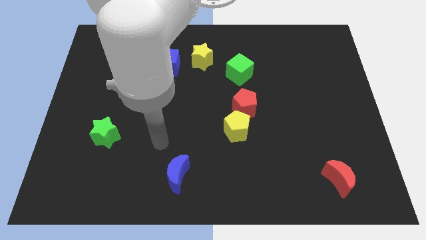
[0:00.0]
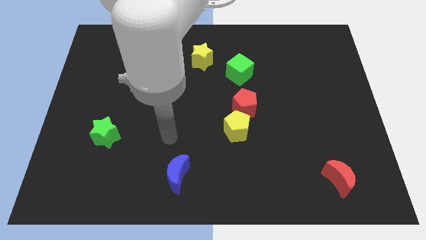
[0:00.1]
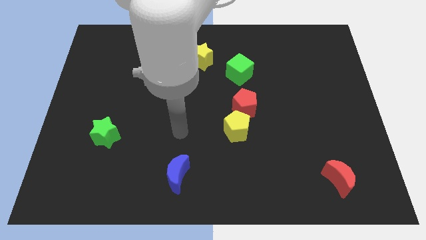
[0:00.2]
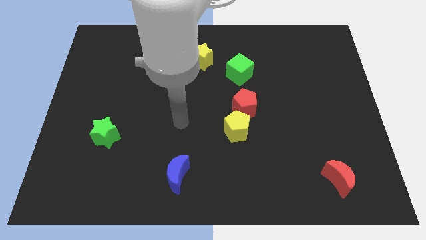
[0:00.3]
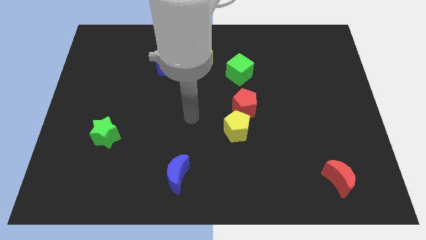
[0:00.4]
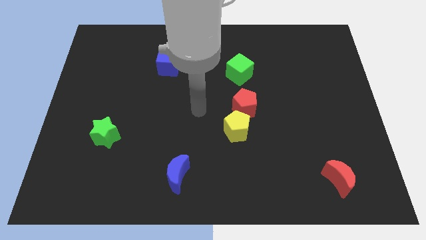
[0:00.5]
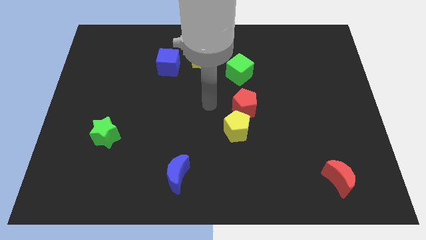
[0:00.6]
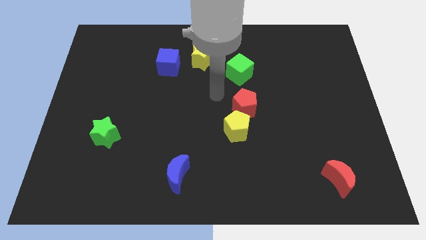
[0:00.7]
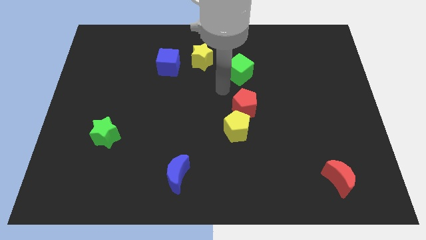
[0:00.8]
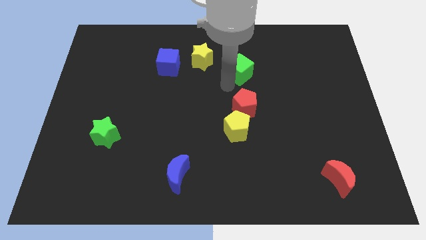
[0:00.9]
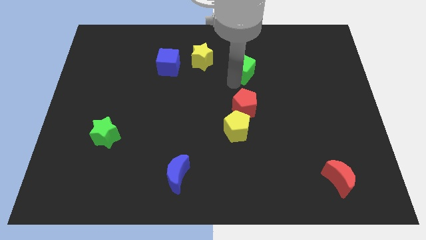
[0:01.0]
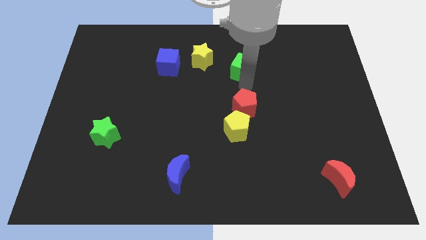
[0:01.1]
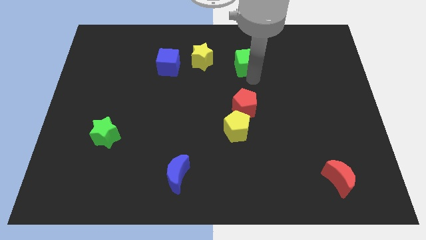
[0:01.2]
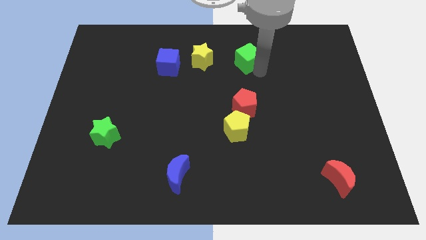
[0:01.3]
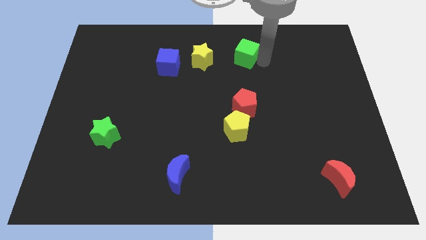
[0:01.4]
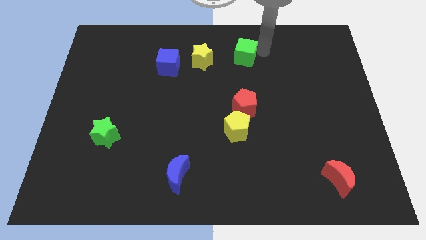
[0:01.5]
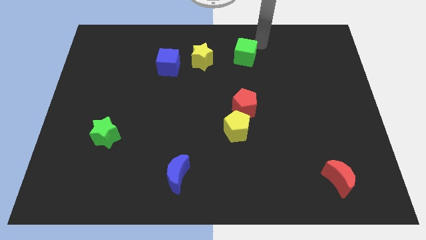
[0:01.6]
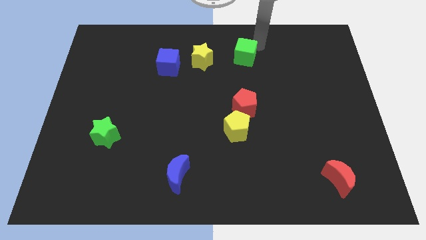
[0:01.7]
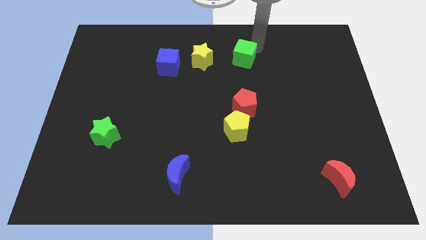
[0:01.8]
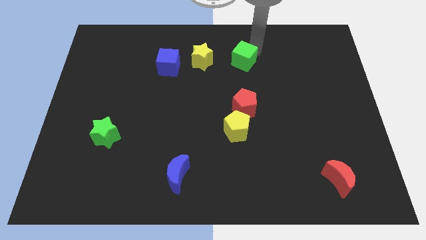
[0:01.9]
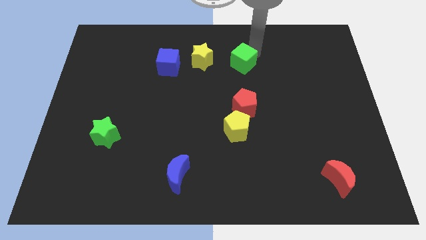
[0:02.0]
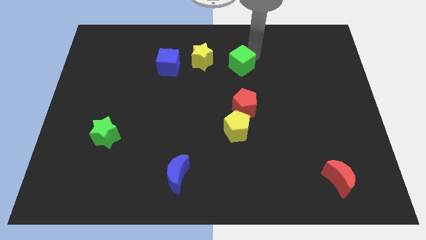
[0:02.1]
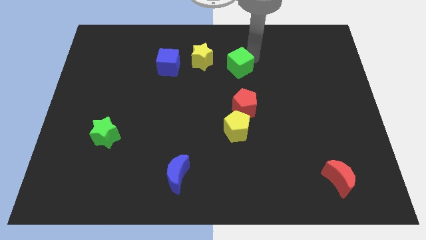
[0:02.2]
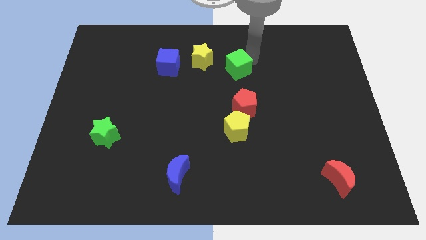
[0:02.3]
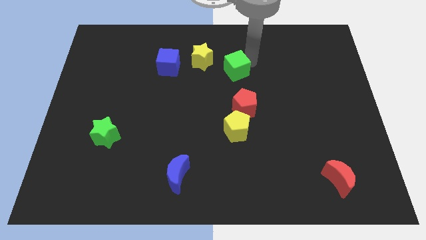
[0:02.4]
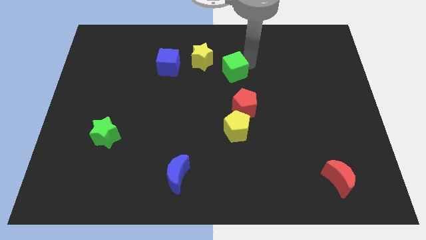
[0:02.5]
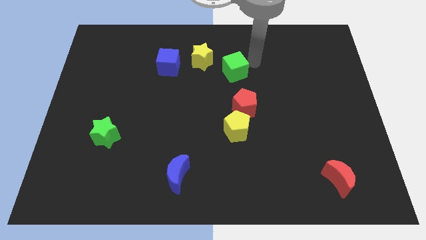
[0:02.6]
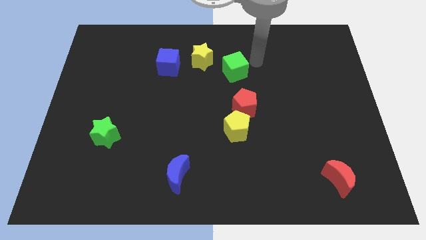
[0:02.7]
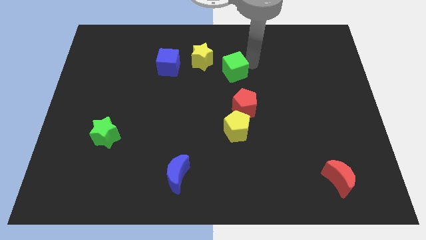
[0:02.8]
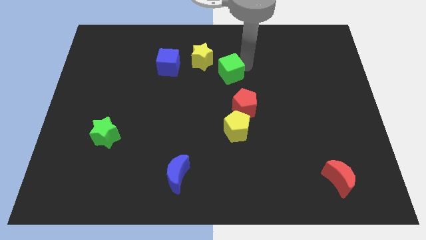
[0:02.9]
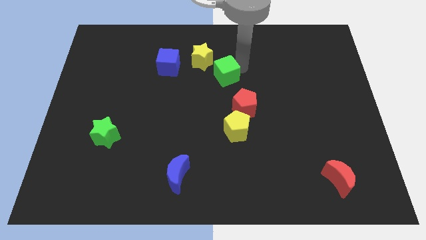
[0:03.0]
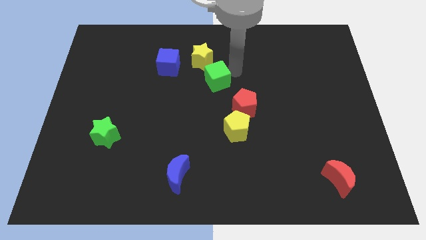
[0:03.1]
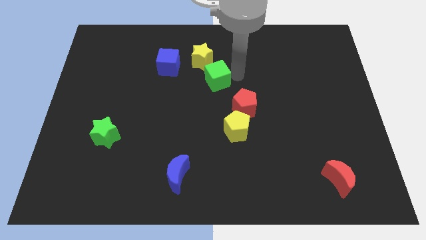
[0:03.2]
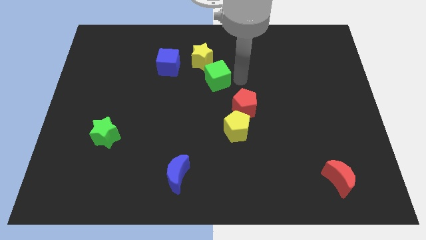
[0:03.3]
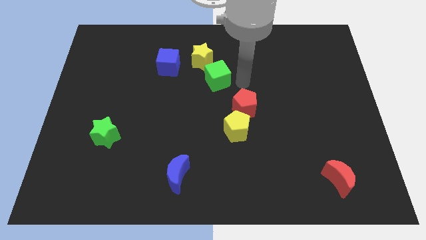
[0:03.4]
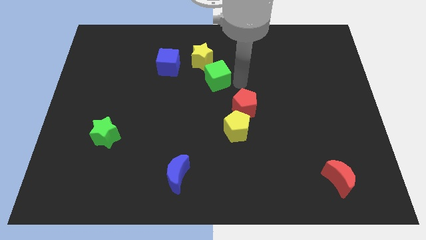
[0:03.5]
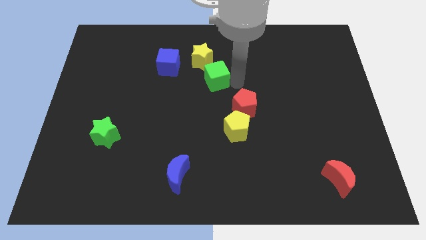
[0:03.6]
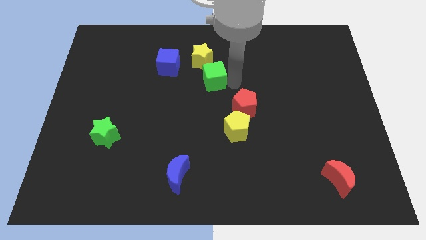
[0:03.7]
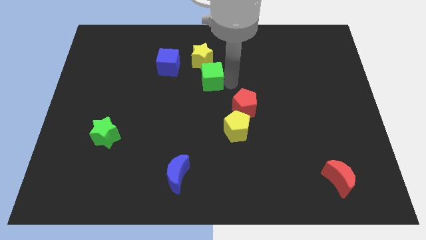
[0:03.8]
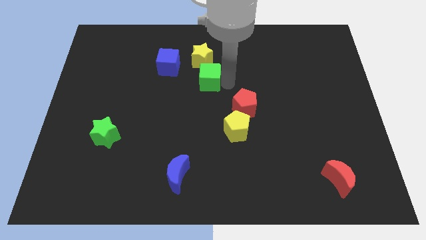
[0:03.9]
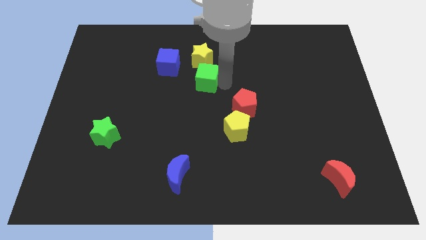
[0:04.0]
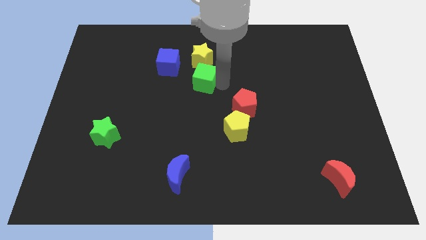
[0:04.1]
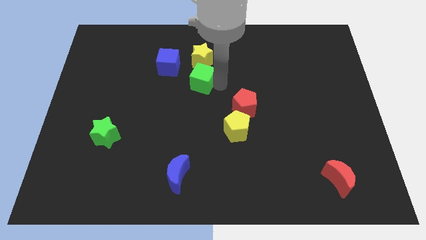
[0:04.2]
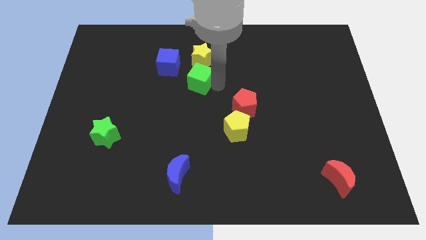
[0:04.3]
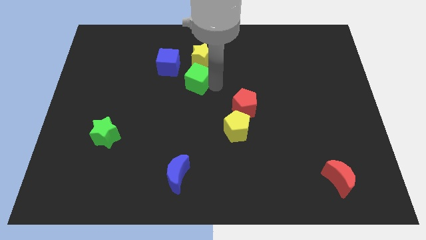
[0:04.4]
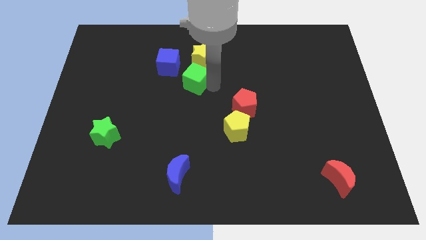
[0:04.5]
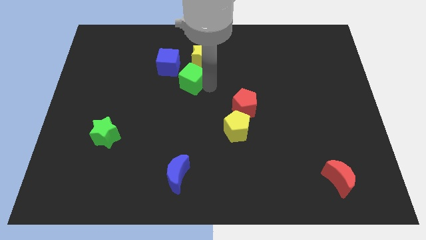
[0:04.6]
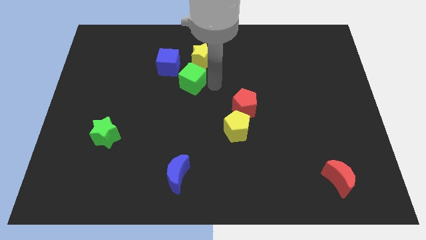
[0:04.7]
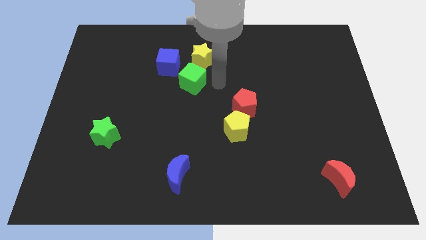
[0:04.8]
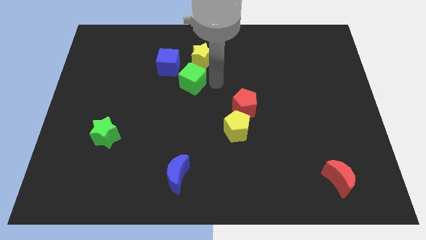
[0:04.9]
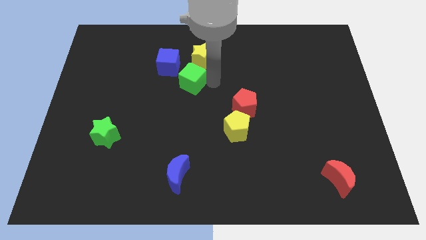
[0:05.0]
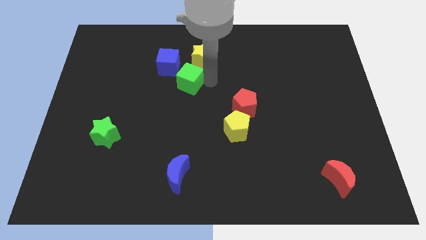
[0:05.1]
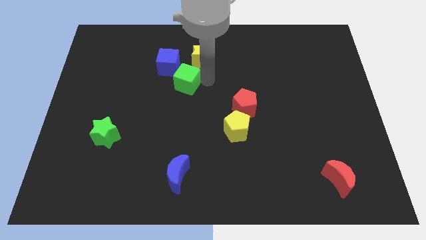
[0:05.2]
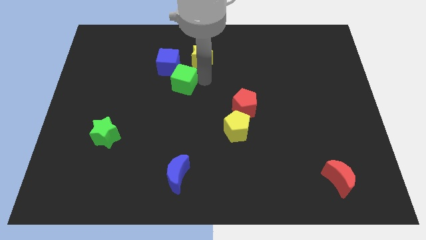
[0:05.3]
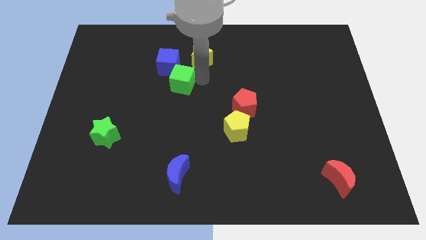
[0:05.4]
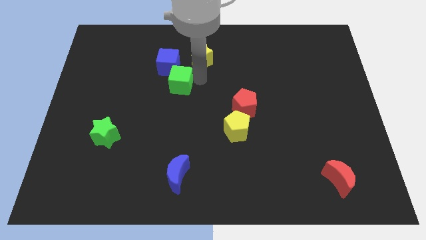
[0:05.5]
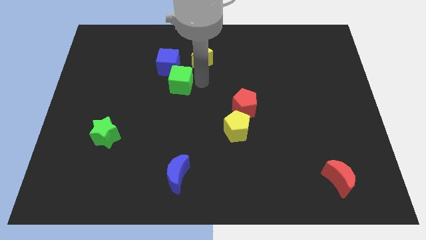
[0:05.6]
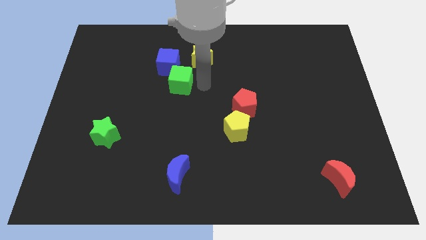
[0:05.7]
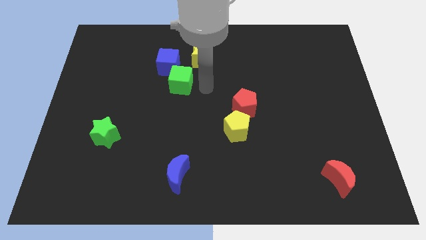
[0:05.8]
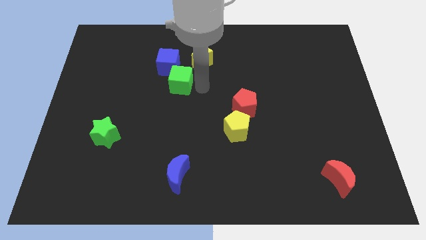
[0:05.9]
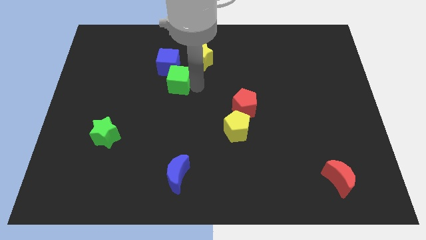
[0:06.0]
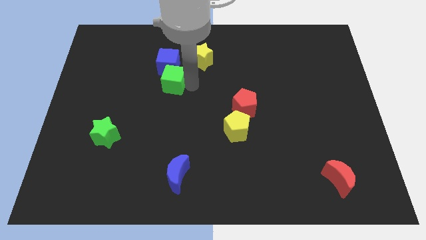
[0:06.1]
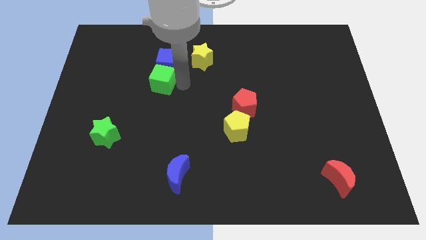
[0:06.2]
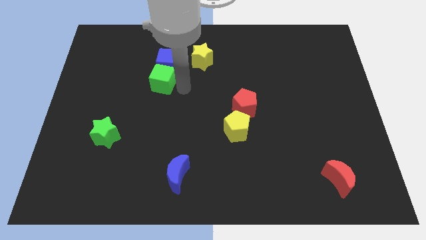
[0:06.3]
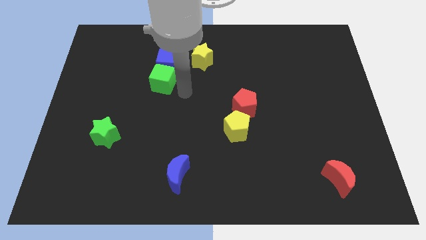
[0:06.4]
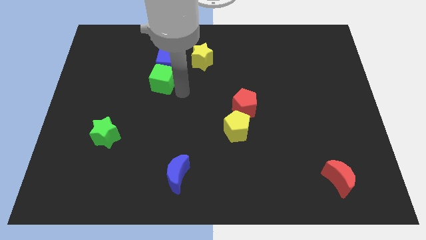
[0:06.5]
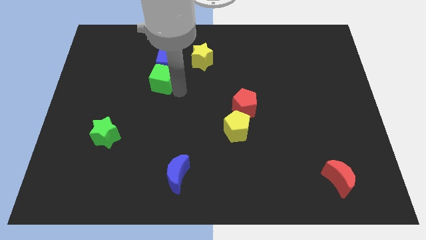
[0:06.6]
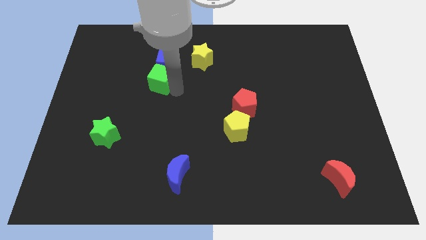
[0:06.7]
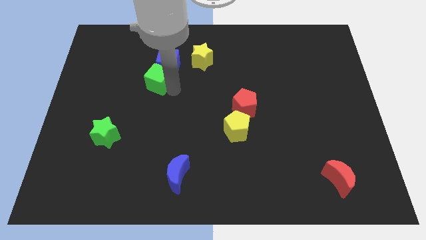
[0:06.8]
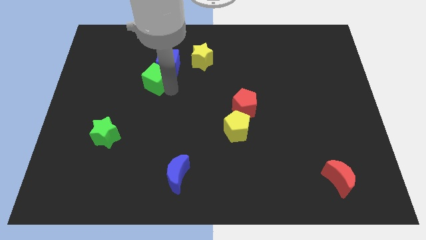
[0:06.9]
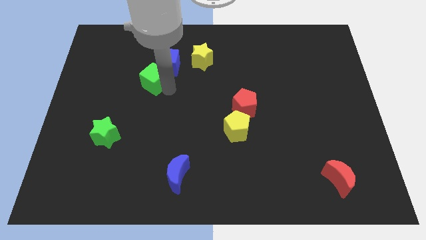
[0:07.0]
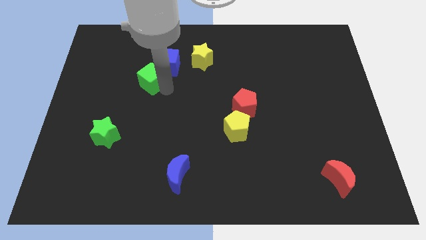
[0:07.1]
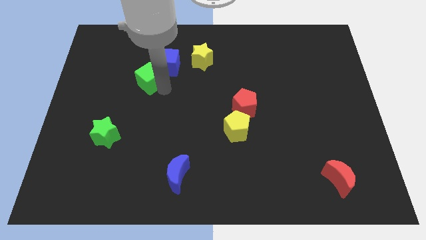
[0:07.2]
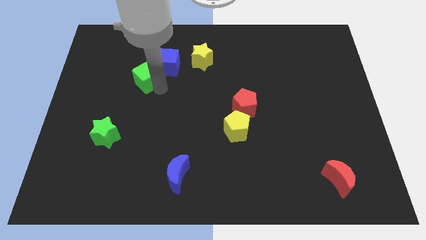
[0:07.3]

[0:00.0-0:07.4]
move the green cube to the left side of the blue cube
